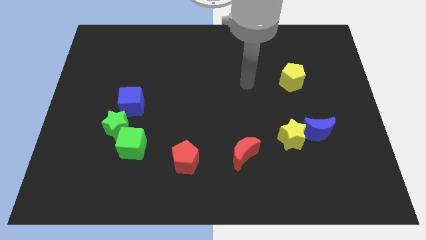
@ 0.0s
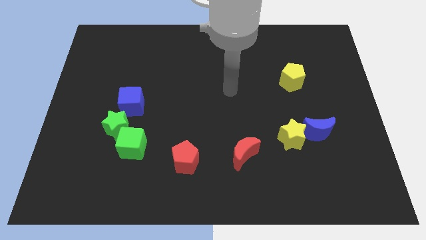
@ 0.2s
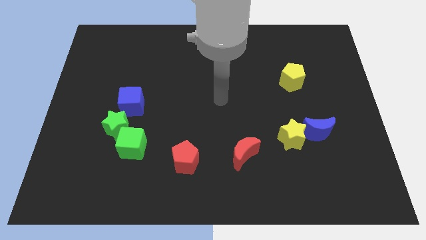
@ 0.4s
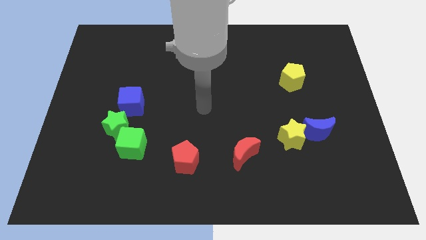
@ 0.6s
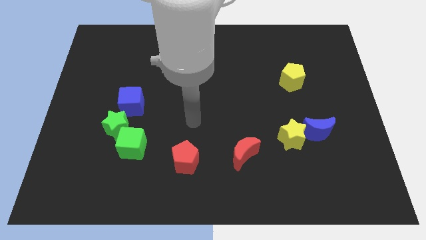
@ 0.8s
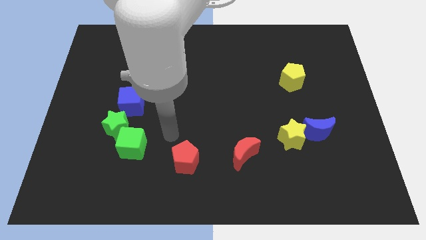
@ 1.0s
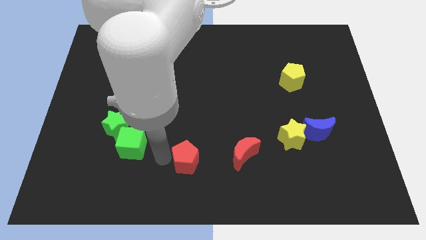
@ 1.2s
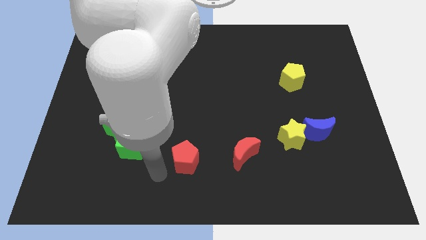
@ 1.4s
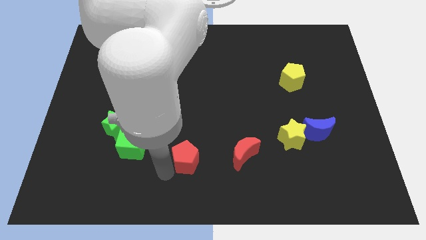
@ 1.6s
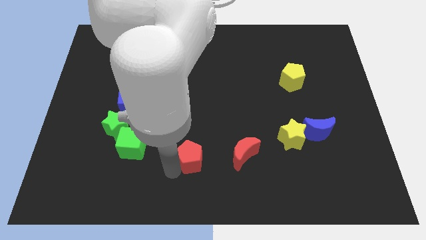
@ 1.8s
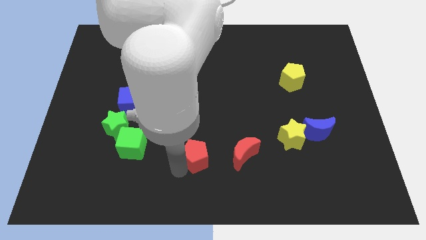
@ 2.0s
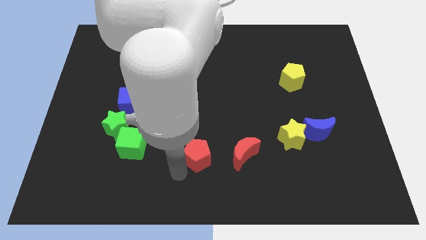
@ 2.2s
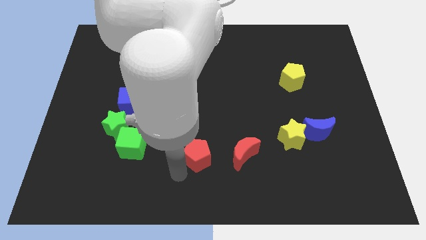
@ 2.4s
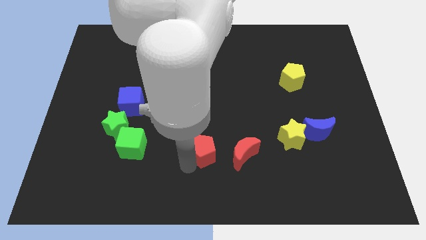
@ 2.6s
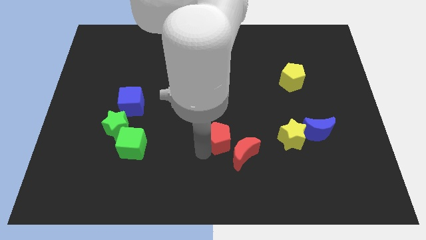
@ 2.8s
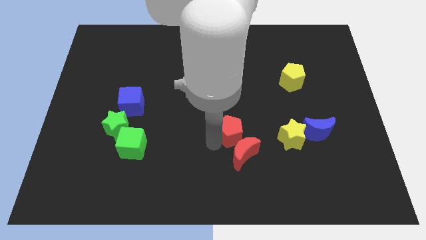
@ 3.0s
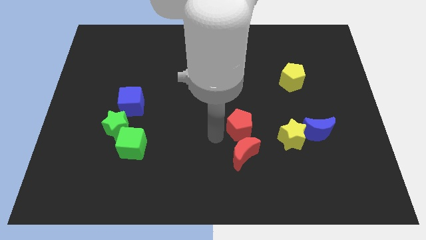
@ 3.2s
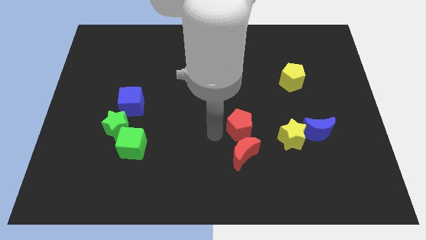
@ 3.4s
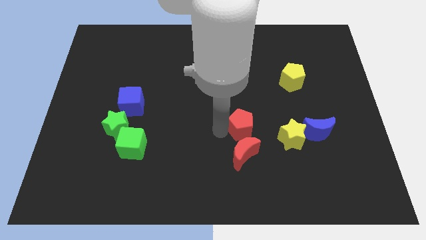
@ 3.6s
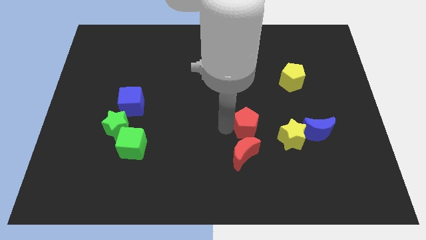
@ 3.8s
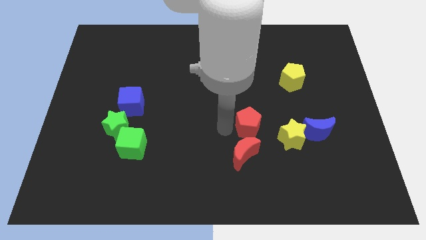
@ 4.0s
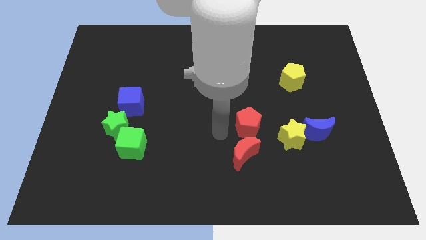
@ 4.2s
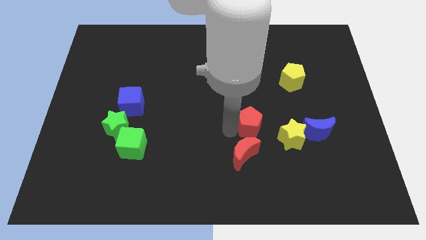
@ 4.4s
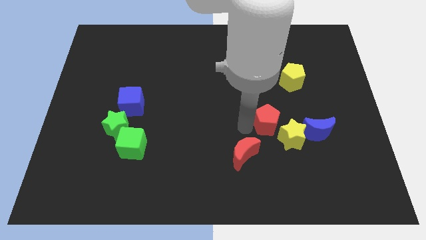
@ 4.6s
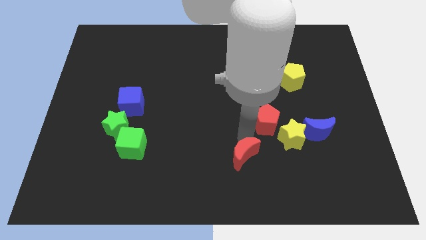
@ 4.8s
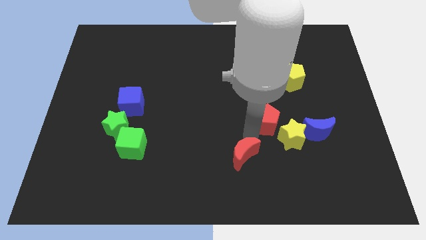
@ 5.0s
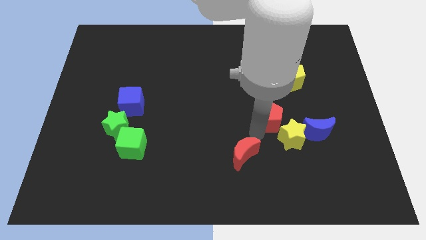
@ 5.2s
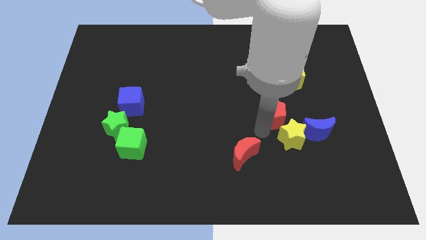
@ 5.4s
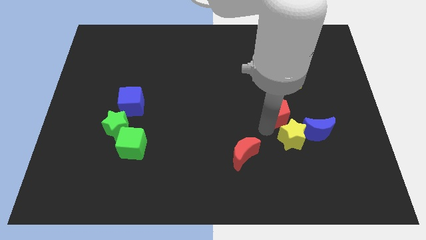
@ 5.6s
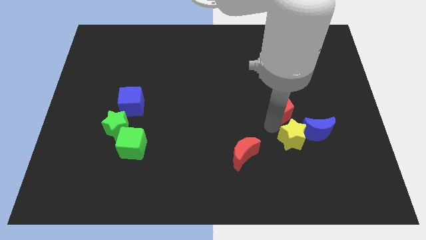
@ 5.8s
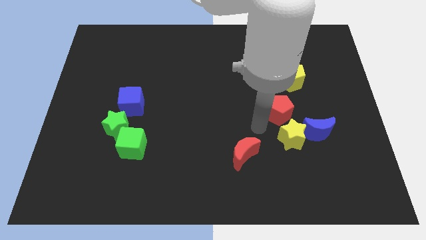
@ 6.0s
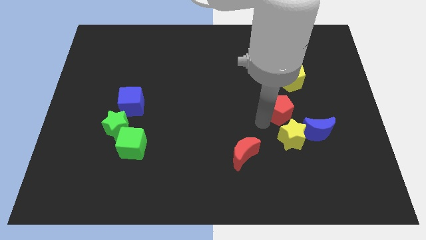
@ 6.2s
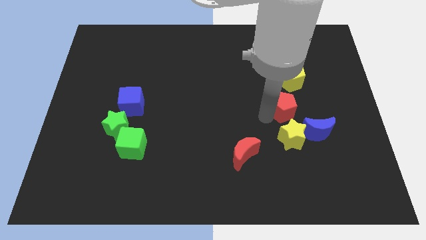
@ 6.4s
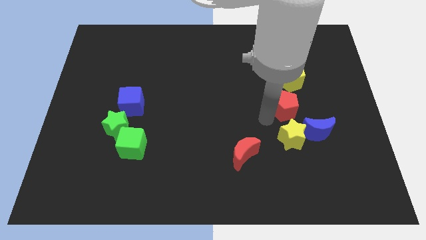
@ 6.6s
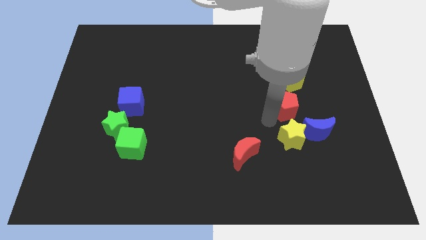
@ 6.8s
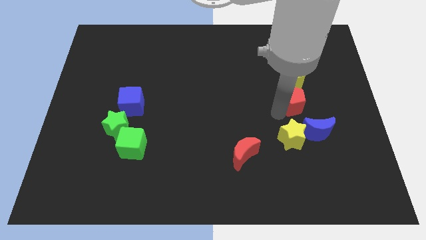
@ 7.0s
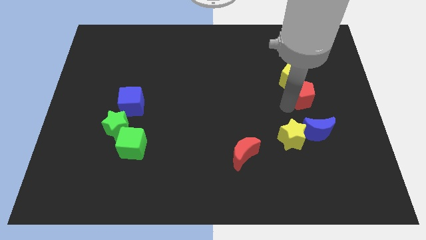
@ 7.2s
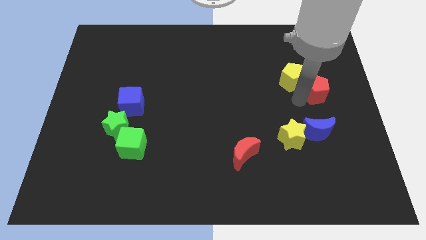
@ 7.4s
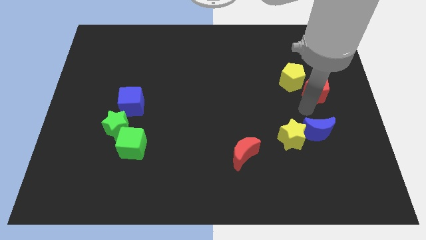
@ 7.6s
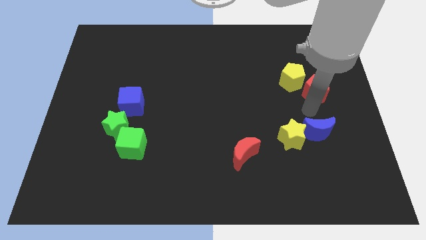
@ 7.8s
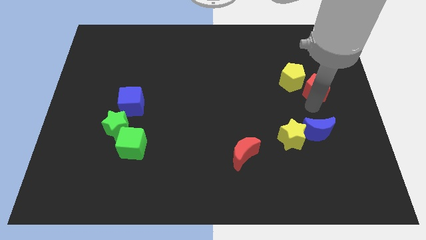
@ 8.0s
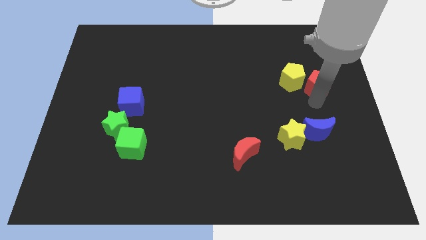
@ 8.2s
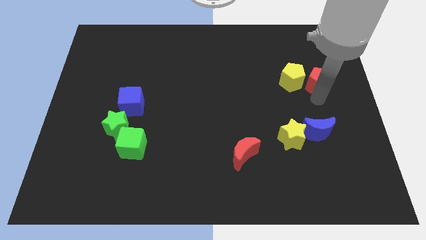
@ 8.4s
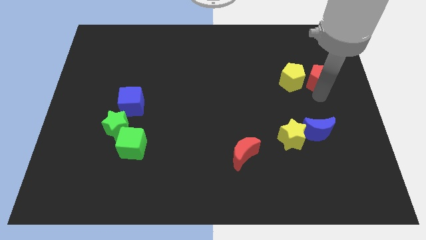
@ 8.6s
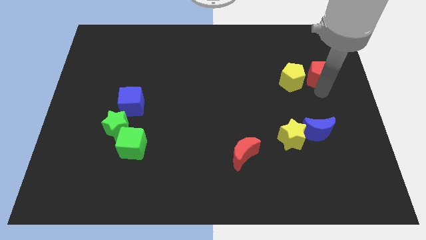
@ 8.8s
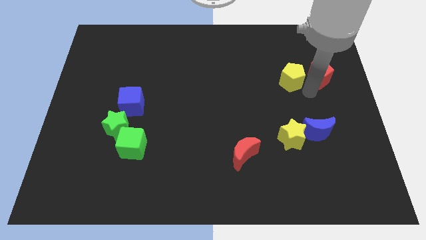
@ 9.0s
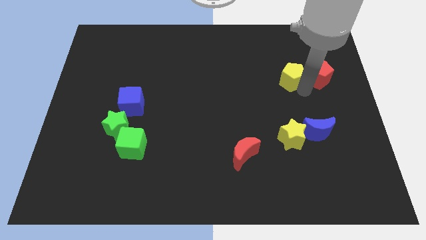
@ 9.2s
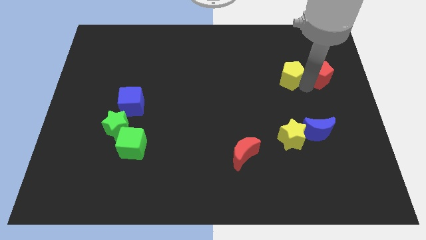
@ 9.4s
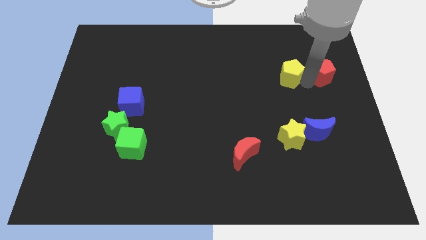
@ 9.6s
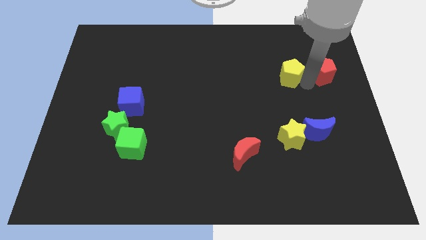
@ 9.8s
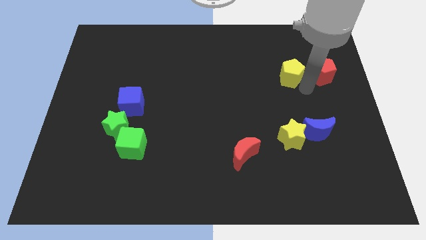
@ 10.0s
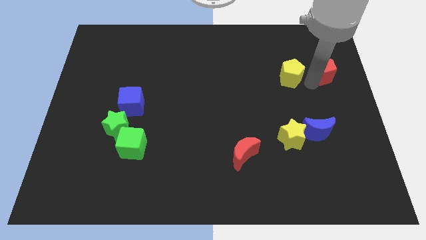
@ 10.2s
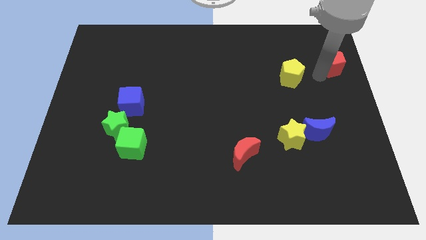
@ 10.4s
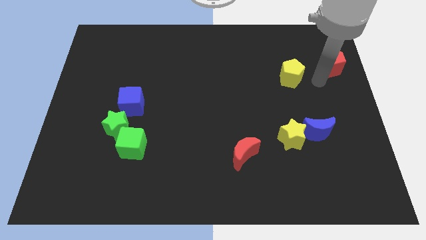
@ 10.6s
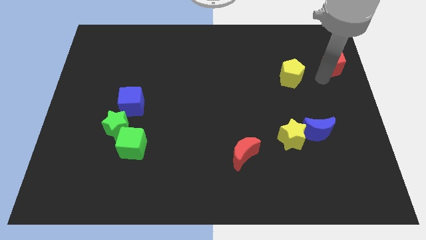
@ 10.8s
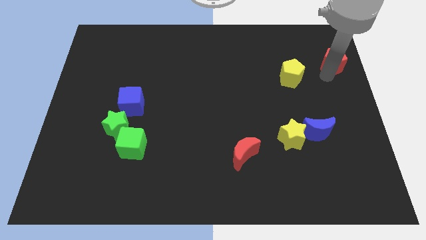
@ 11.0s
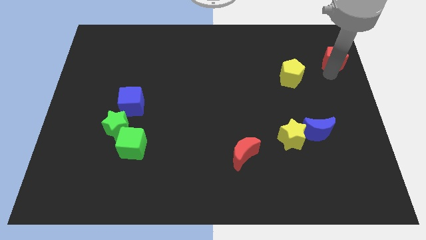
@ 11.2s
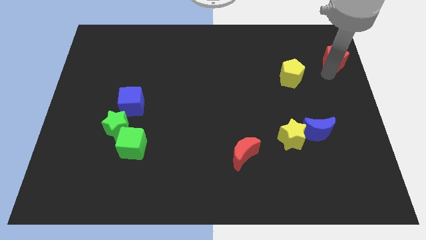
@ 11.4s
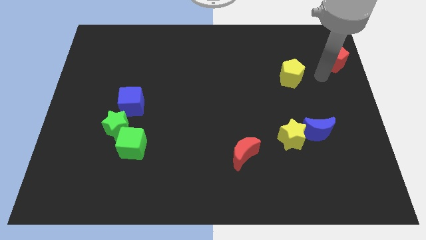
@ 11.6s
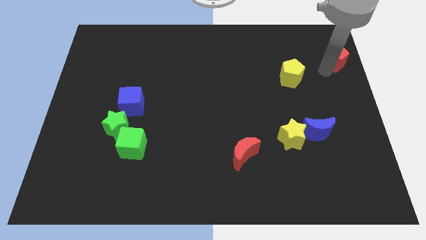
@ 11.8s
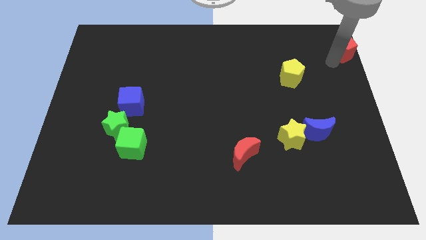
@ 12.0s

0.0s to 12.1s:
push the red pentagon to the upper right corner
